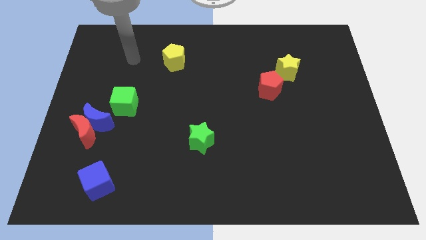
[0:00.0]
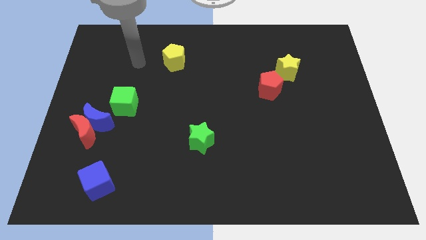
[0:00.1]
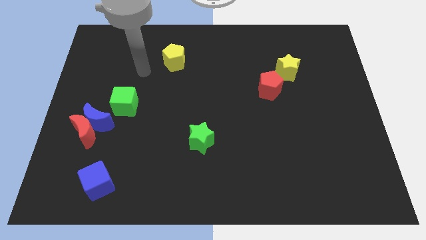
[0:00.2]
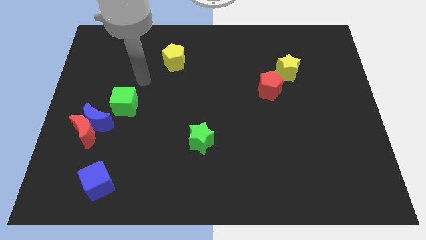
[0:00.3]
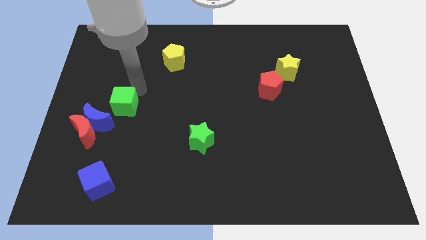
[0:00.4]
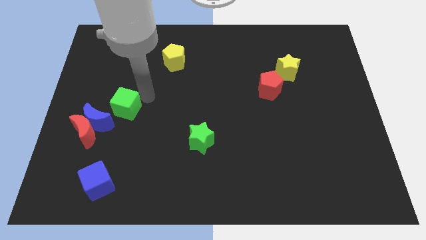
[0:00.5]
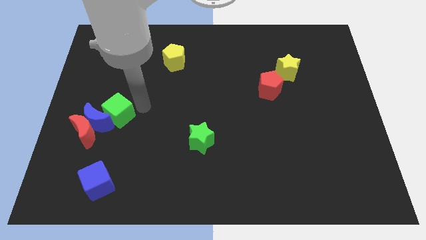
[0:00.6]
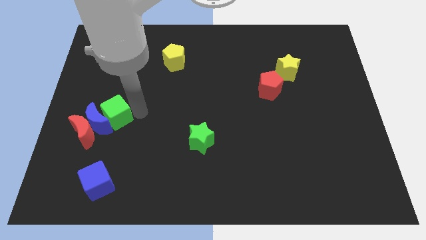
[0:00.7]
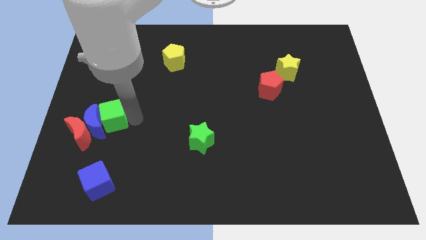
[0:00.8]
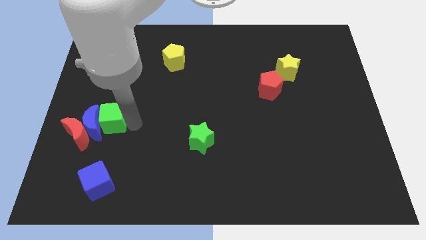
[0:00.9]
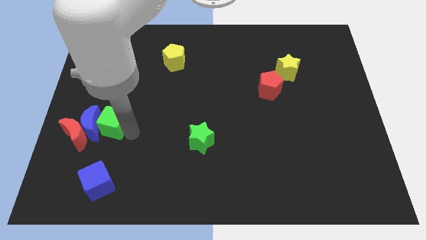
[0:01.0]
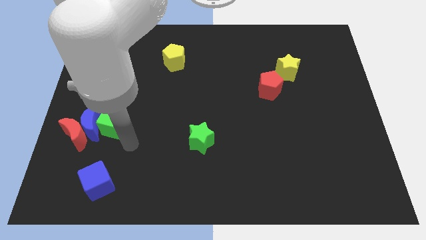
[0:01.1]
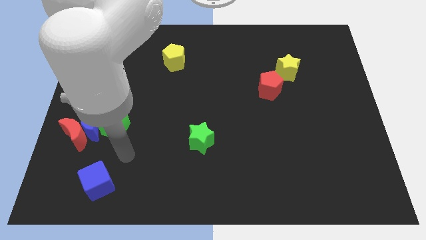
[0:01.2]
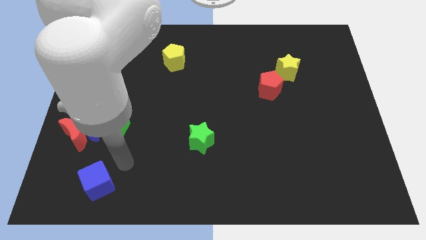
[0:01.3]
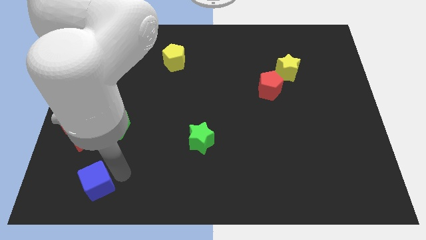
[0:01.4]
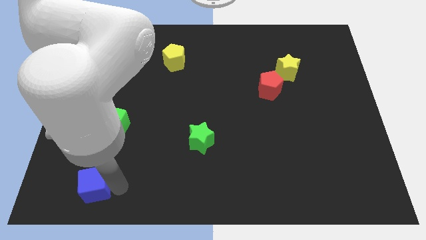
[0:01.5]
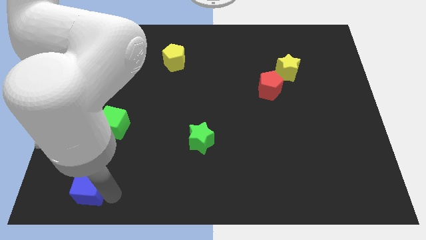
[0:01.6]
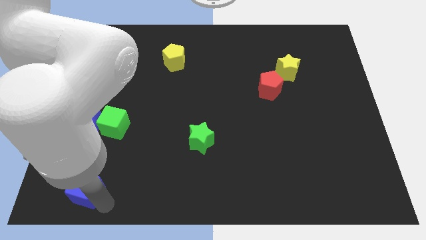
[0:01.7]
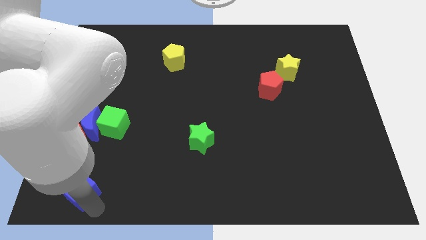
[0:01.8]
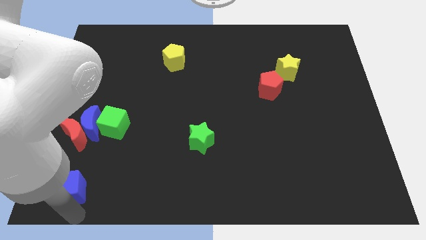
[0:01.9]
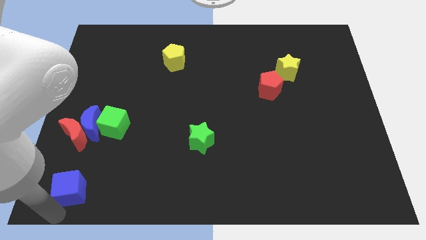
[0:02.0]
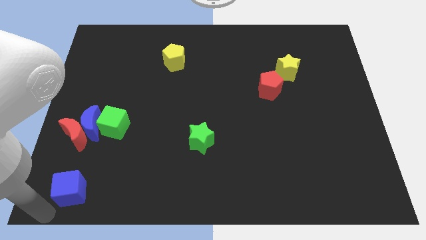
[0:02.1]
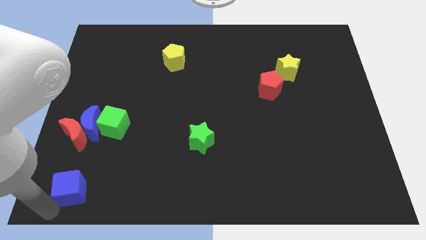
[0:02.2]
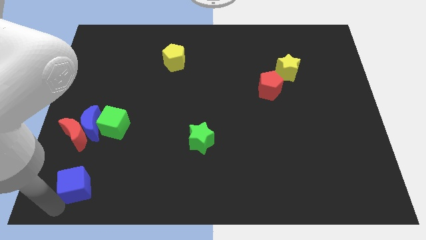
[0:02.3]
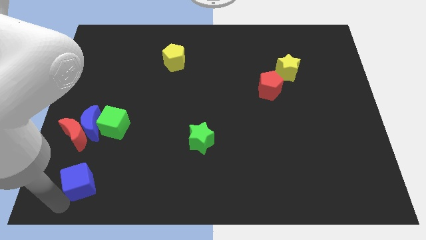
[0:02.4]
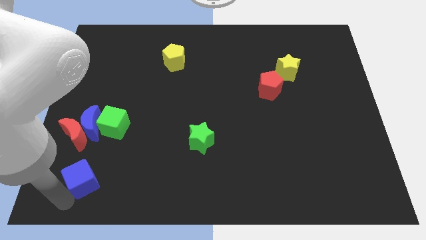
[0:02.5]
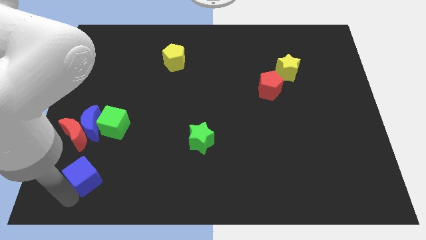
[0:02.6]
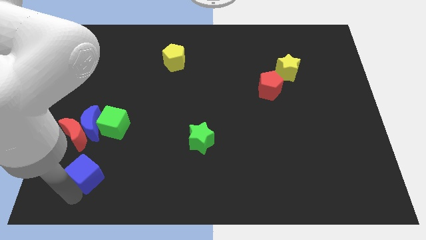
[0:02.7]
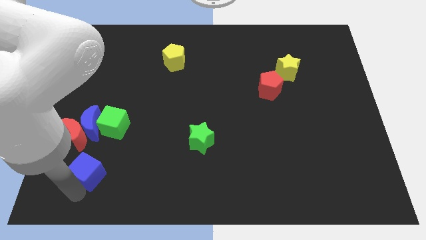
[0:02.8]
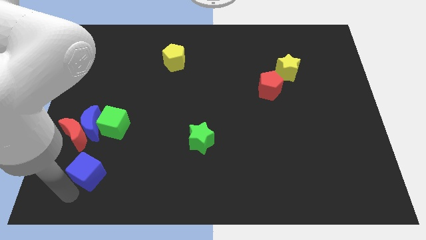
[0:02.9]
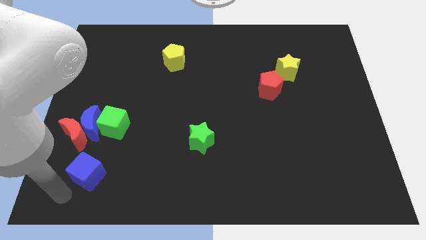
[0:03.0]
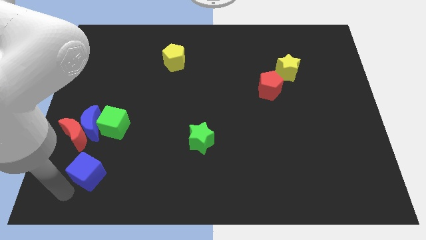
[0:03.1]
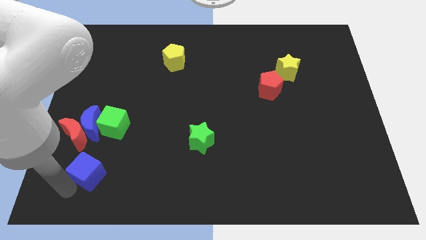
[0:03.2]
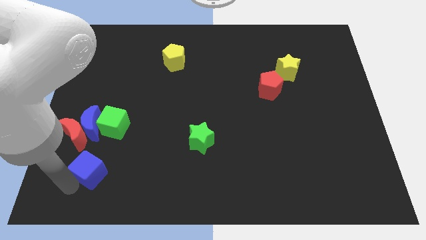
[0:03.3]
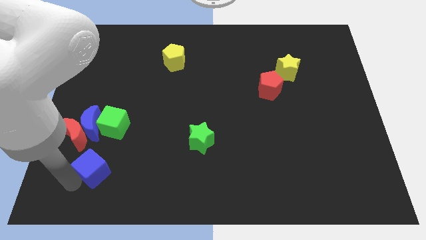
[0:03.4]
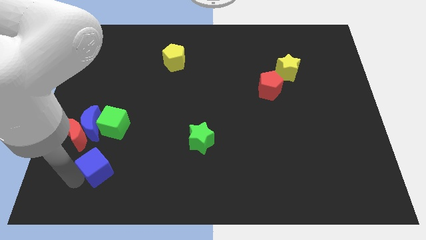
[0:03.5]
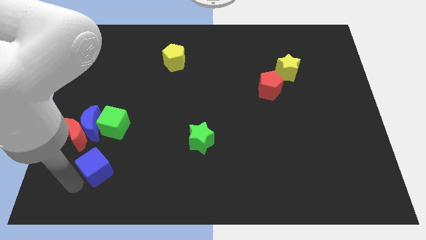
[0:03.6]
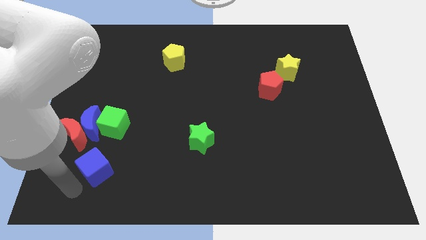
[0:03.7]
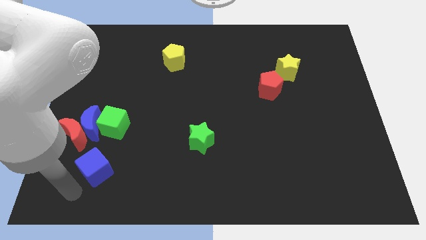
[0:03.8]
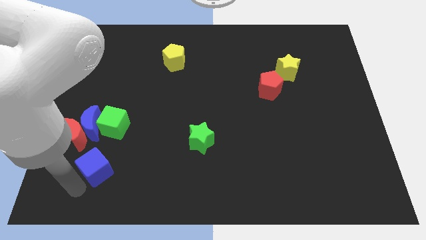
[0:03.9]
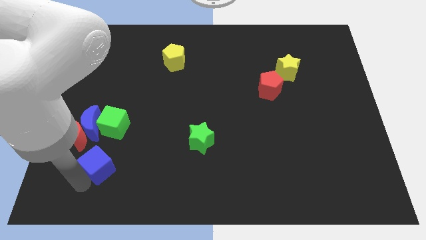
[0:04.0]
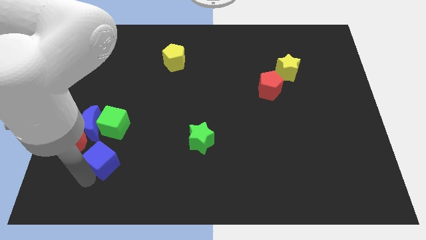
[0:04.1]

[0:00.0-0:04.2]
move the blue cube diagonally down and to the right of the blue moon

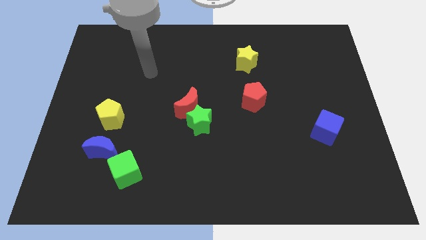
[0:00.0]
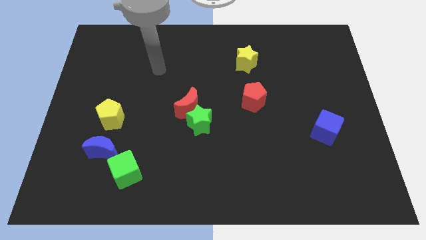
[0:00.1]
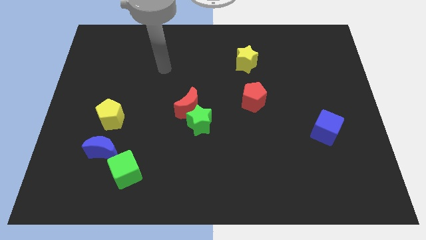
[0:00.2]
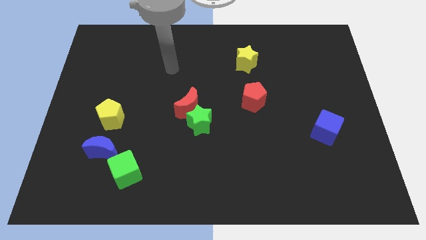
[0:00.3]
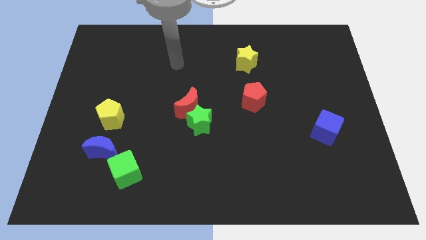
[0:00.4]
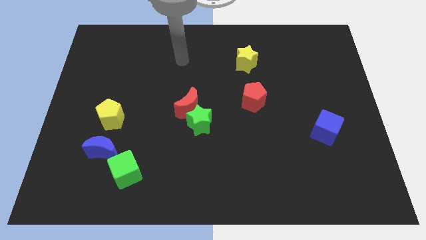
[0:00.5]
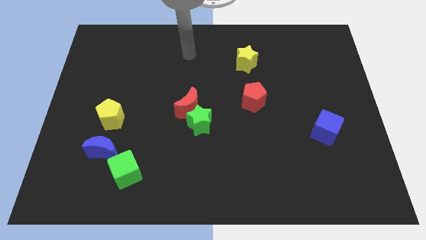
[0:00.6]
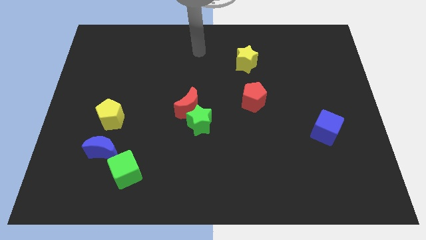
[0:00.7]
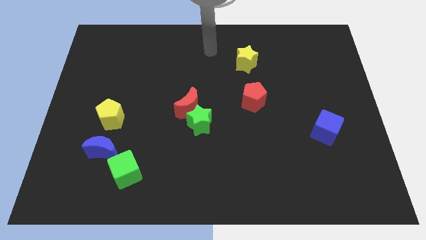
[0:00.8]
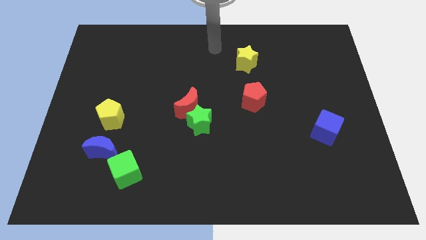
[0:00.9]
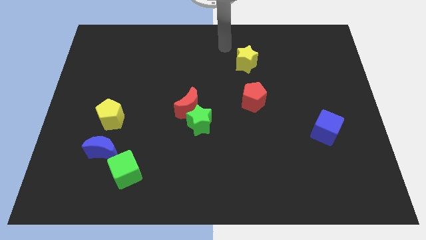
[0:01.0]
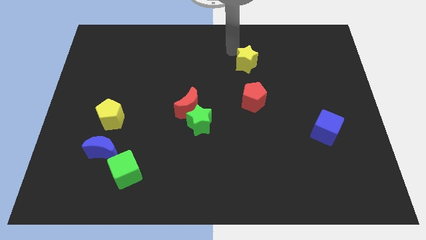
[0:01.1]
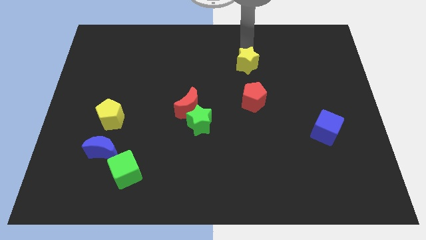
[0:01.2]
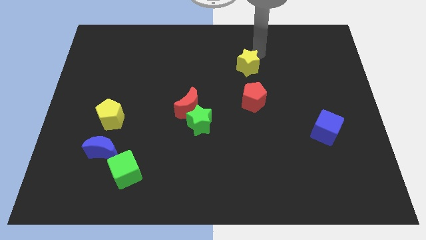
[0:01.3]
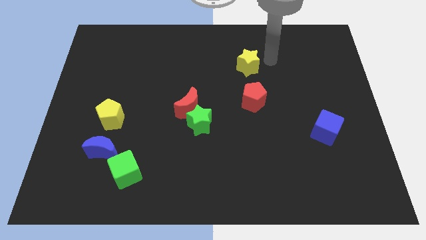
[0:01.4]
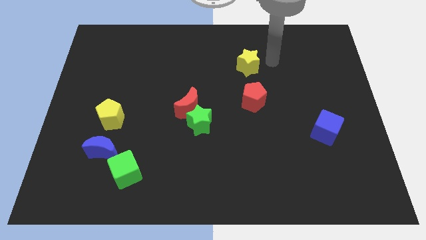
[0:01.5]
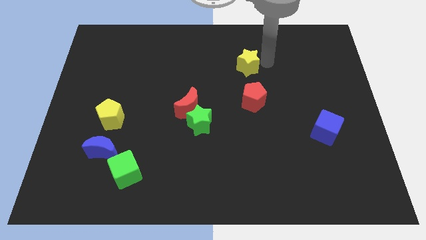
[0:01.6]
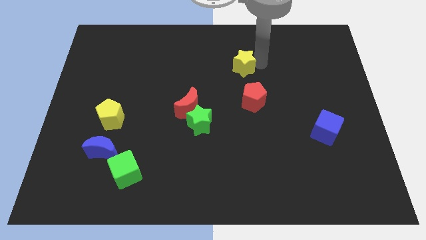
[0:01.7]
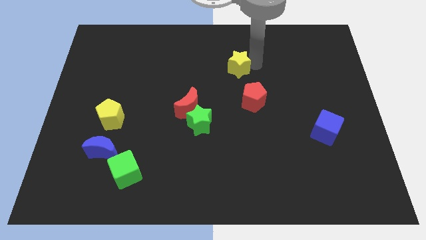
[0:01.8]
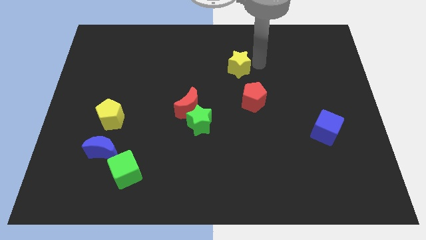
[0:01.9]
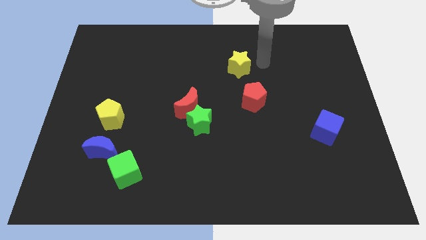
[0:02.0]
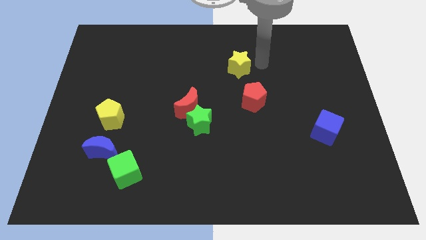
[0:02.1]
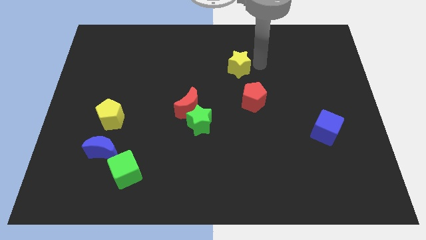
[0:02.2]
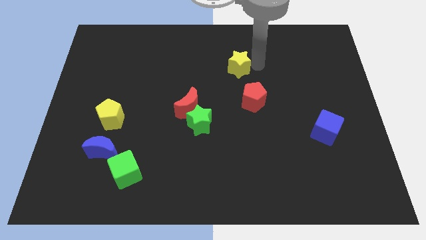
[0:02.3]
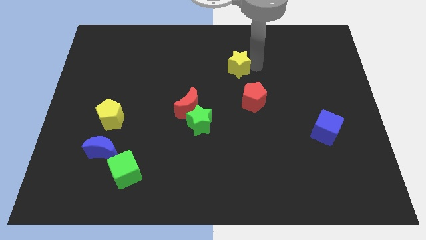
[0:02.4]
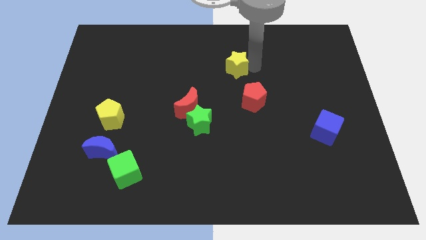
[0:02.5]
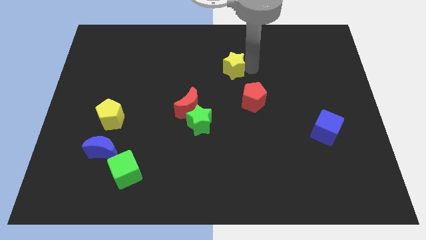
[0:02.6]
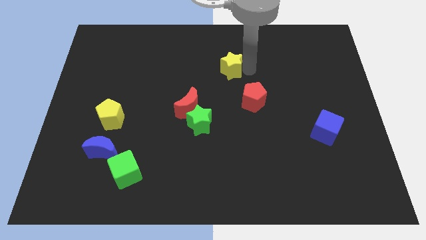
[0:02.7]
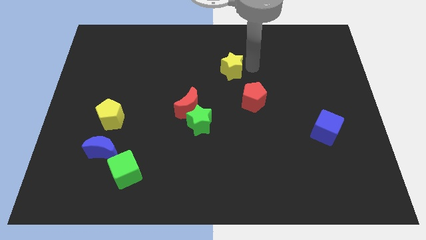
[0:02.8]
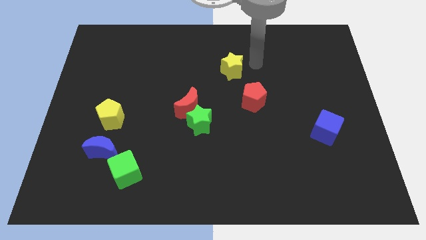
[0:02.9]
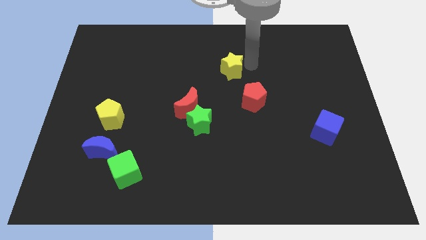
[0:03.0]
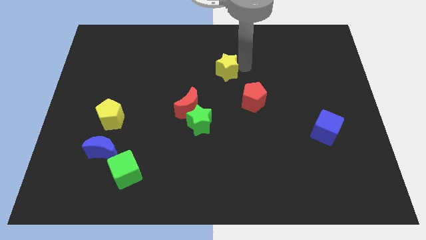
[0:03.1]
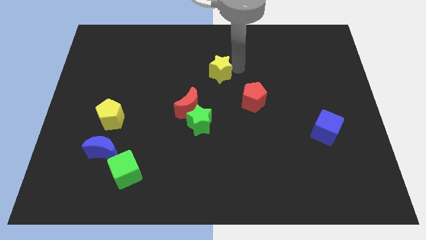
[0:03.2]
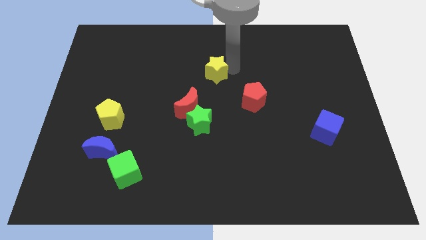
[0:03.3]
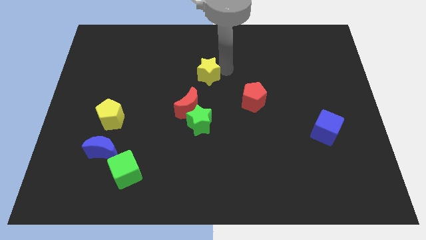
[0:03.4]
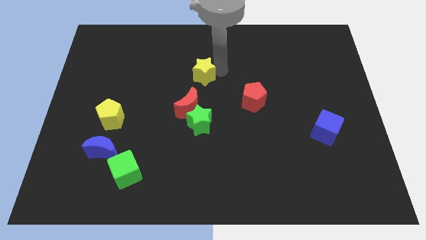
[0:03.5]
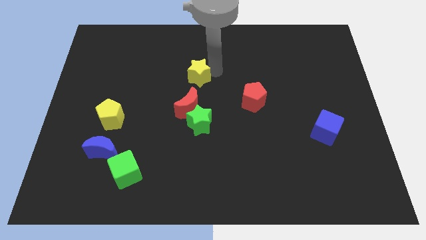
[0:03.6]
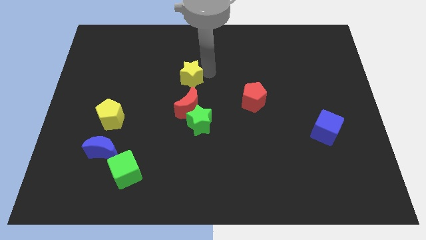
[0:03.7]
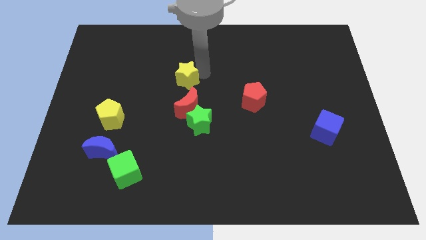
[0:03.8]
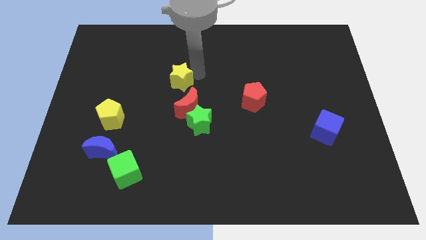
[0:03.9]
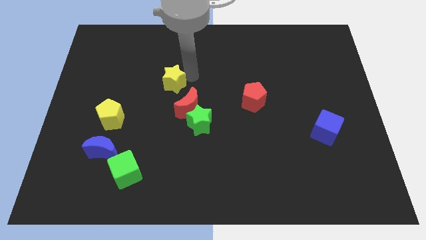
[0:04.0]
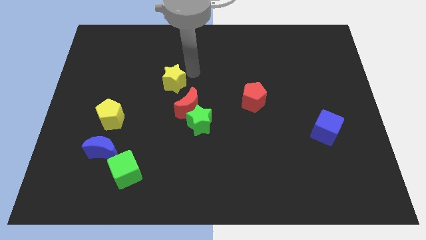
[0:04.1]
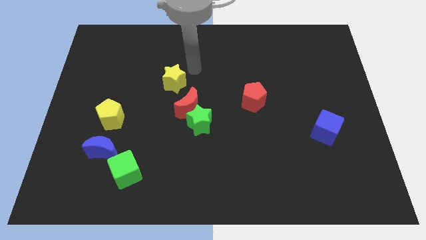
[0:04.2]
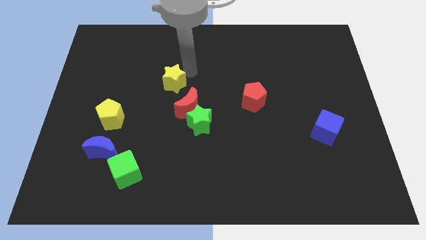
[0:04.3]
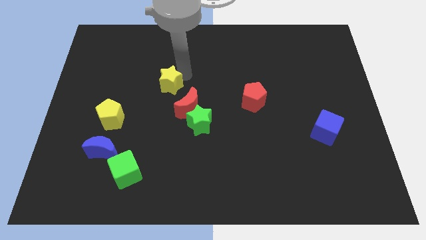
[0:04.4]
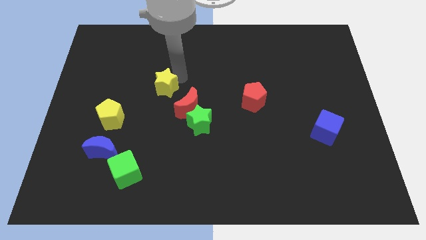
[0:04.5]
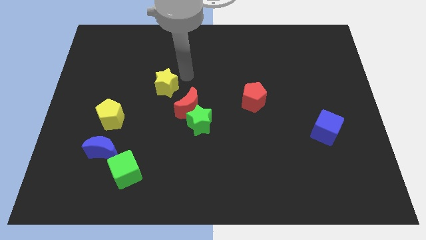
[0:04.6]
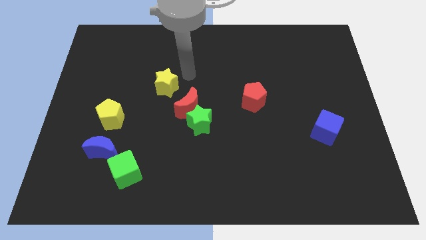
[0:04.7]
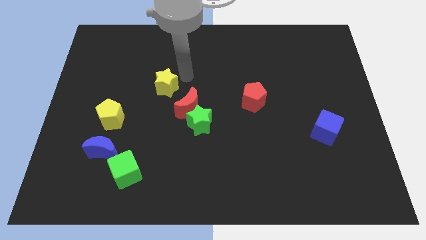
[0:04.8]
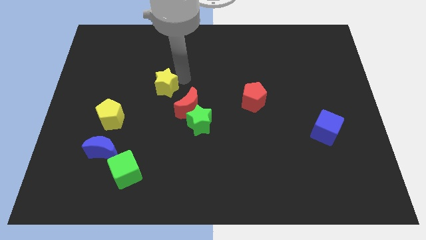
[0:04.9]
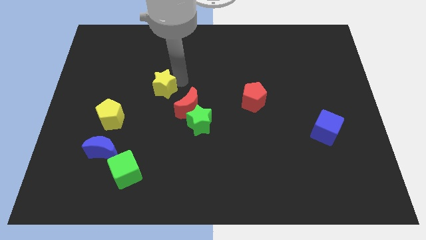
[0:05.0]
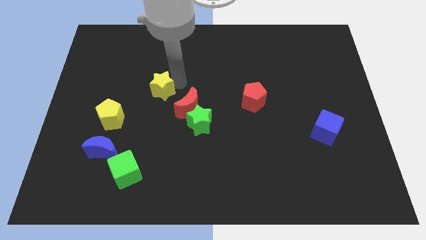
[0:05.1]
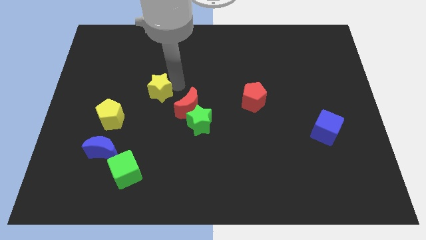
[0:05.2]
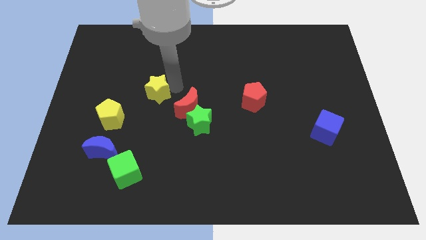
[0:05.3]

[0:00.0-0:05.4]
put the yellow star to the top right of the yellow pentagon
